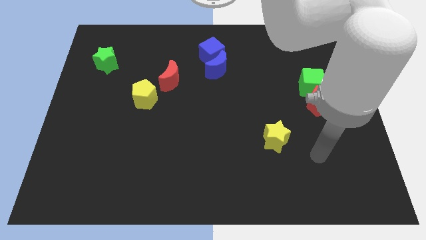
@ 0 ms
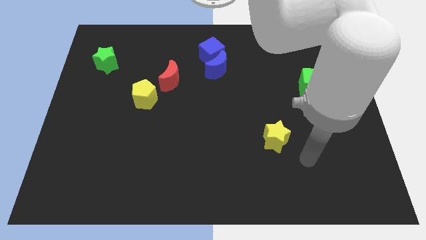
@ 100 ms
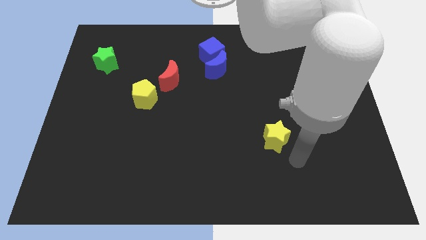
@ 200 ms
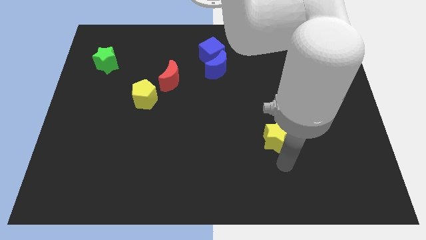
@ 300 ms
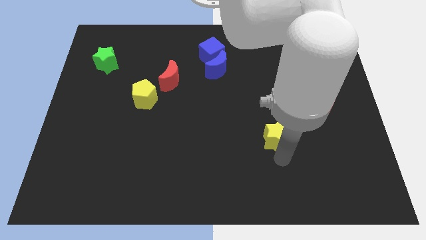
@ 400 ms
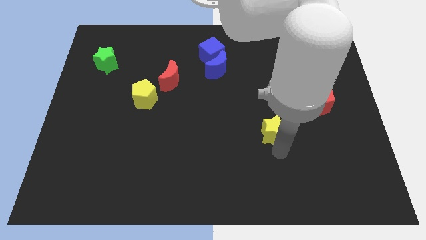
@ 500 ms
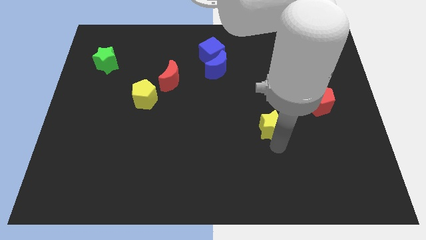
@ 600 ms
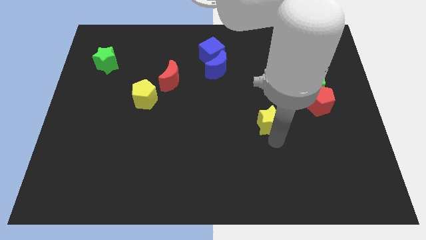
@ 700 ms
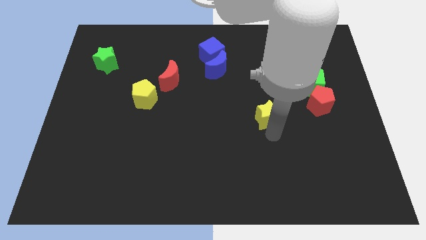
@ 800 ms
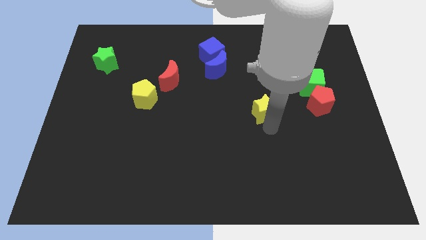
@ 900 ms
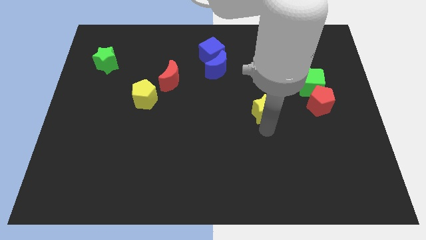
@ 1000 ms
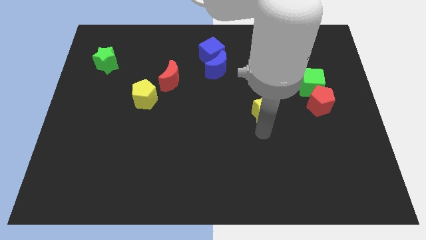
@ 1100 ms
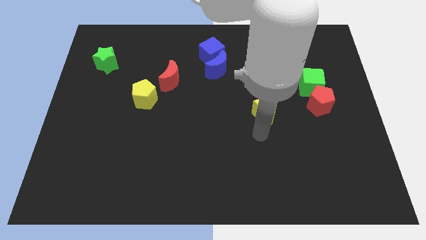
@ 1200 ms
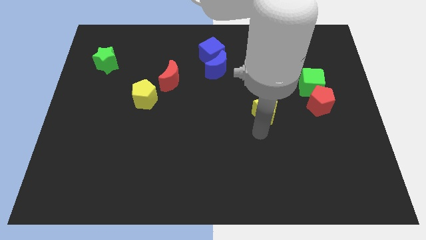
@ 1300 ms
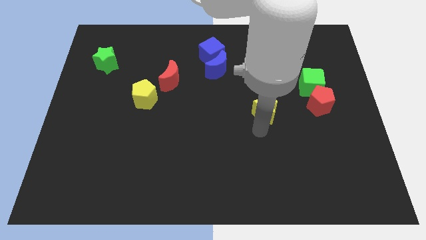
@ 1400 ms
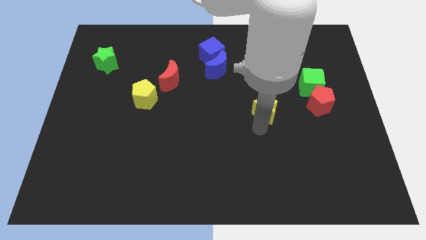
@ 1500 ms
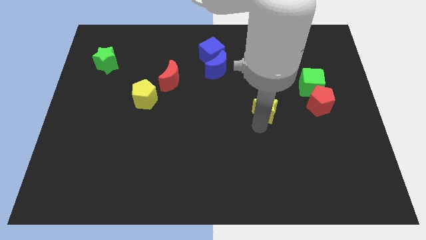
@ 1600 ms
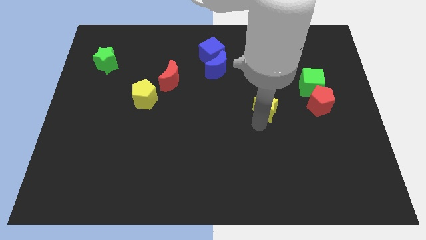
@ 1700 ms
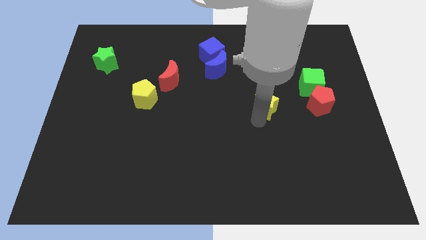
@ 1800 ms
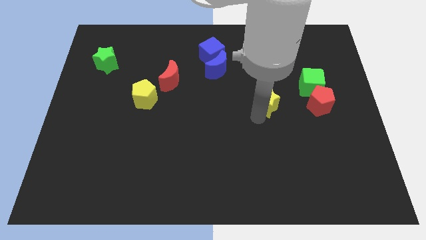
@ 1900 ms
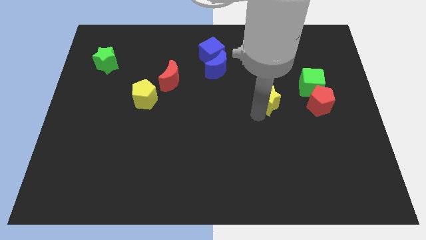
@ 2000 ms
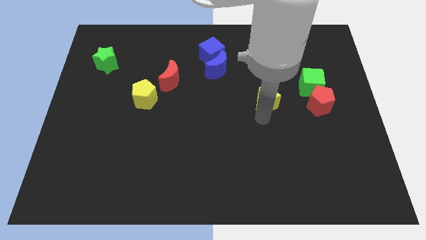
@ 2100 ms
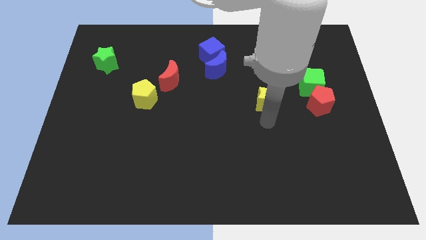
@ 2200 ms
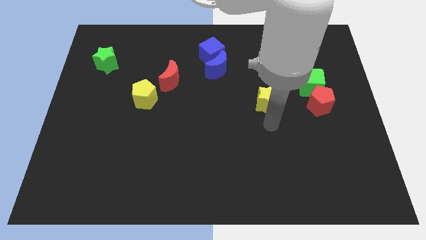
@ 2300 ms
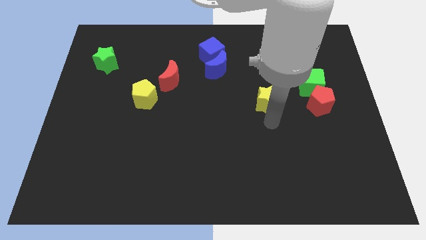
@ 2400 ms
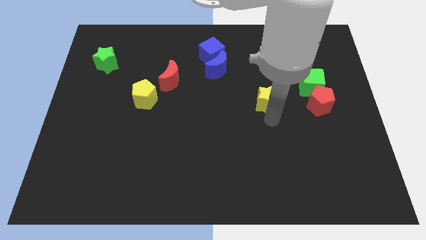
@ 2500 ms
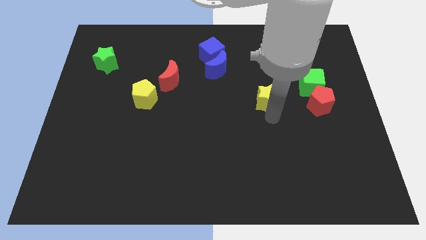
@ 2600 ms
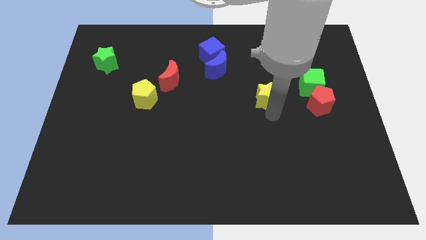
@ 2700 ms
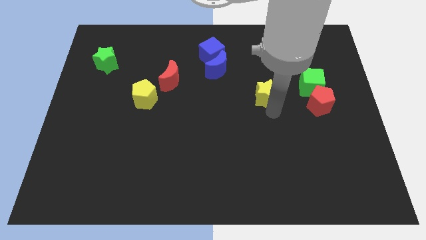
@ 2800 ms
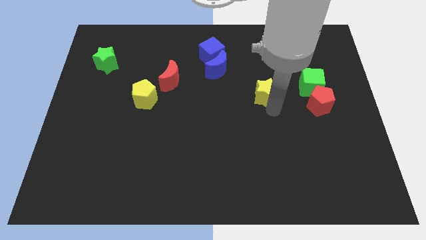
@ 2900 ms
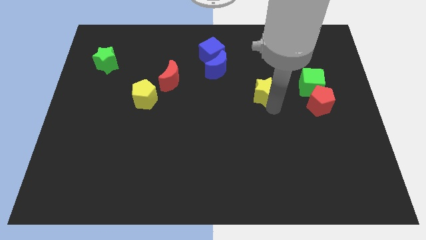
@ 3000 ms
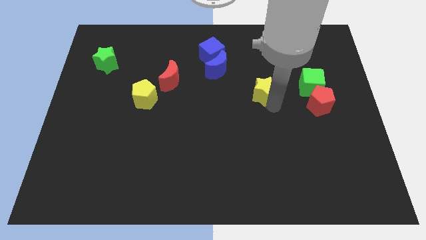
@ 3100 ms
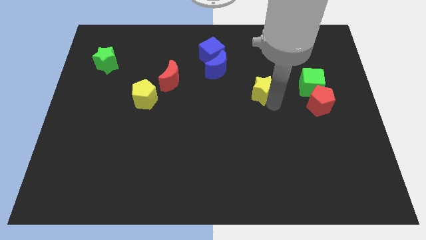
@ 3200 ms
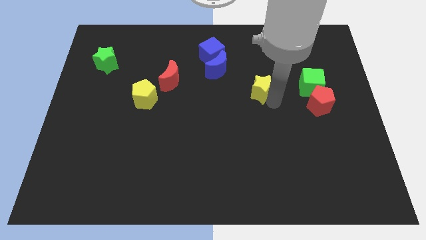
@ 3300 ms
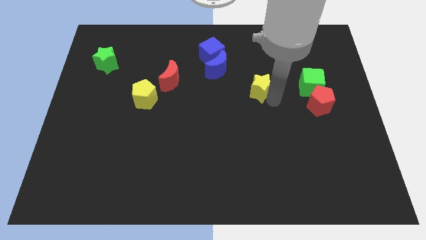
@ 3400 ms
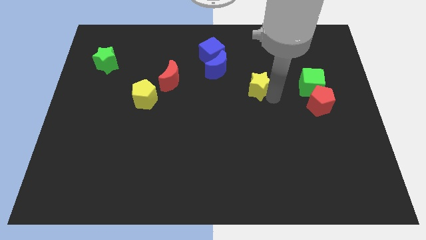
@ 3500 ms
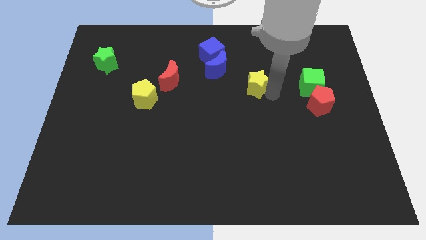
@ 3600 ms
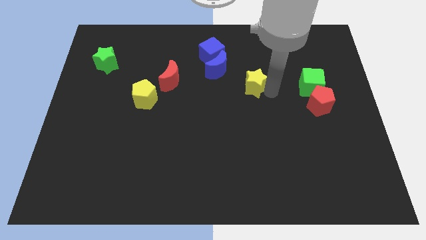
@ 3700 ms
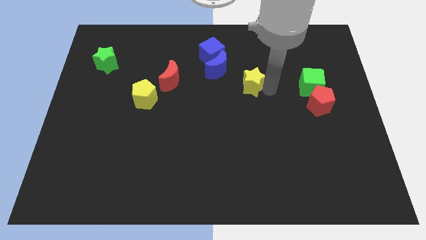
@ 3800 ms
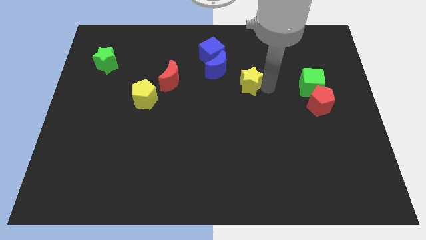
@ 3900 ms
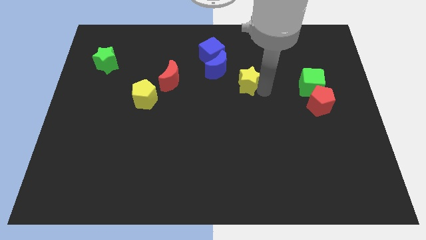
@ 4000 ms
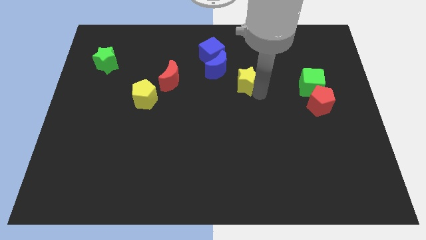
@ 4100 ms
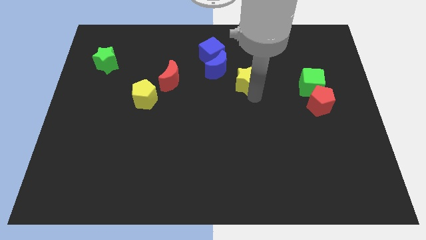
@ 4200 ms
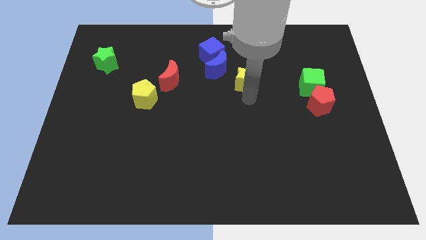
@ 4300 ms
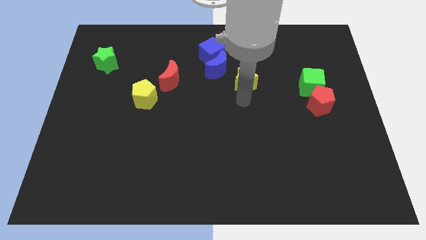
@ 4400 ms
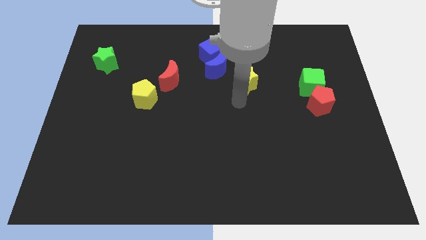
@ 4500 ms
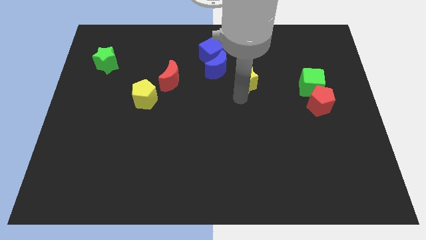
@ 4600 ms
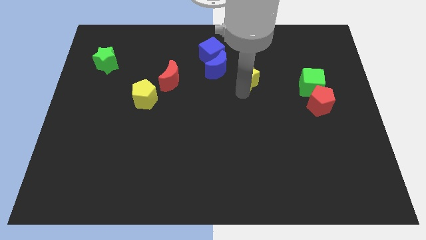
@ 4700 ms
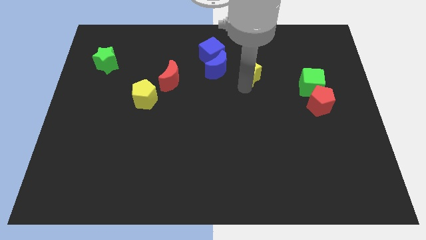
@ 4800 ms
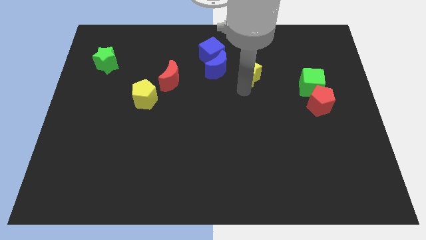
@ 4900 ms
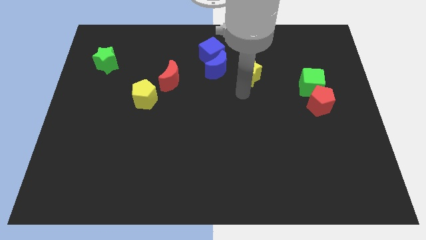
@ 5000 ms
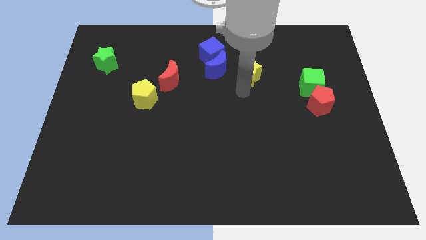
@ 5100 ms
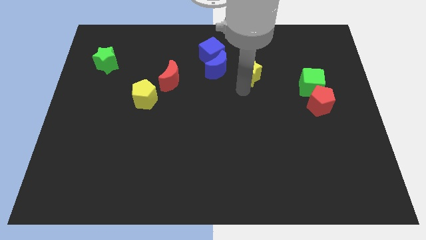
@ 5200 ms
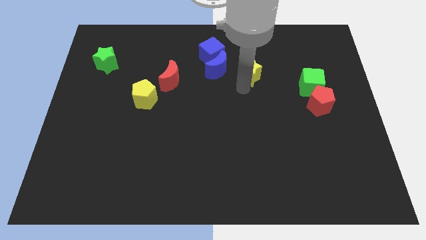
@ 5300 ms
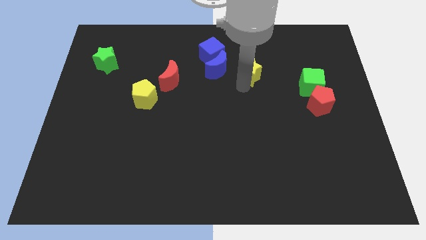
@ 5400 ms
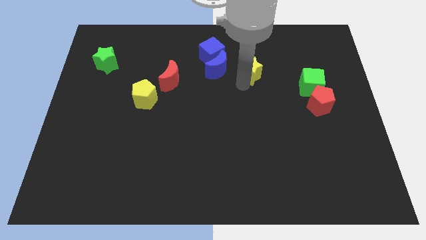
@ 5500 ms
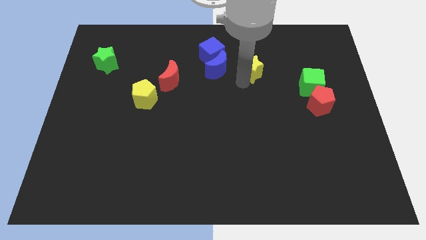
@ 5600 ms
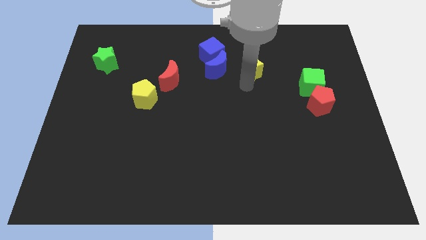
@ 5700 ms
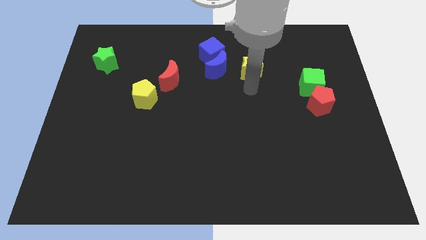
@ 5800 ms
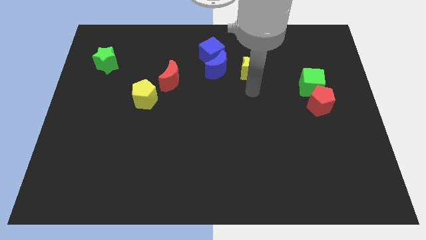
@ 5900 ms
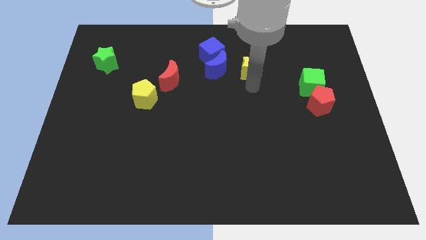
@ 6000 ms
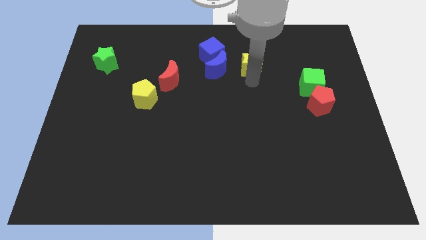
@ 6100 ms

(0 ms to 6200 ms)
push the yellow star to the right side of the blue cube

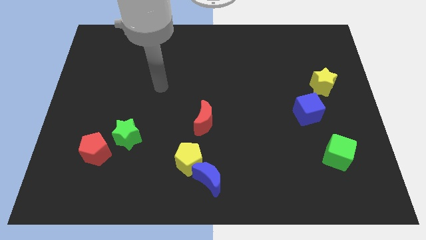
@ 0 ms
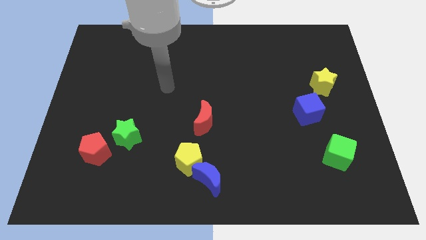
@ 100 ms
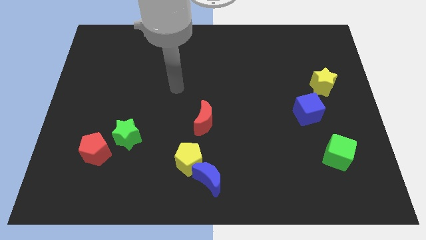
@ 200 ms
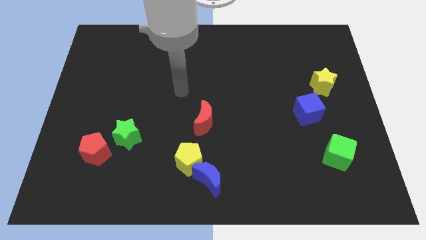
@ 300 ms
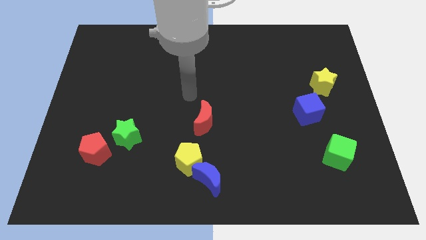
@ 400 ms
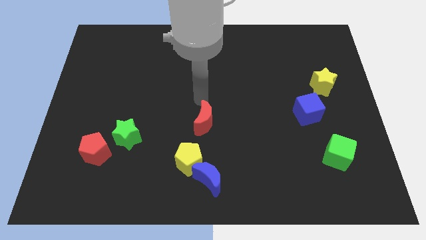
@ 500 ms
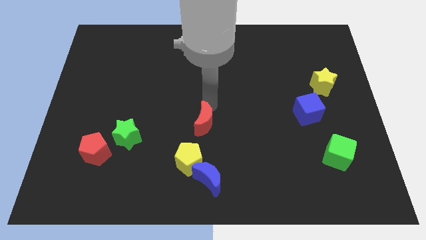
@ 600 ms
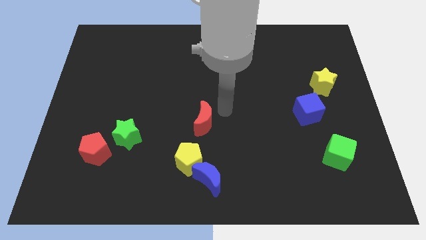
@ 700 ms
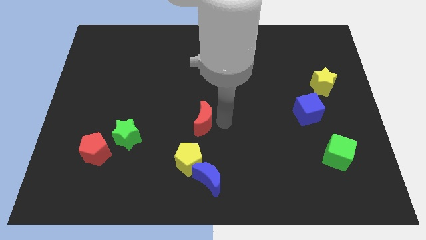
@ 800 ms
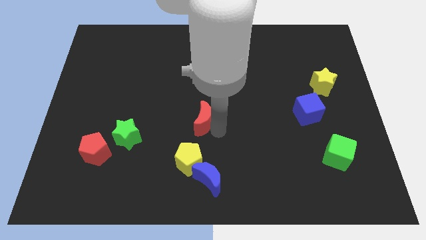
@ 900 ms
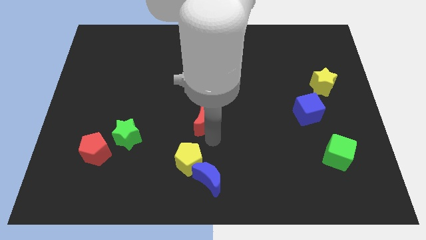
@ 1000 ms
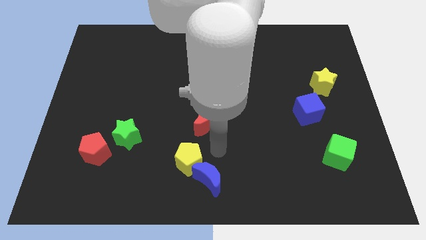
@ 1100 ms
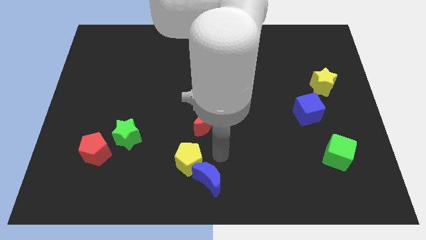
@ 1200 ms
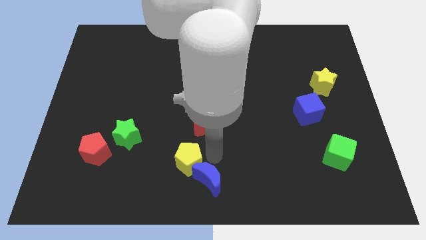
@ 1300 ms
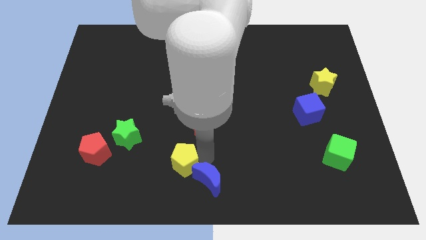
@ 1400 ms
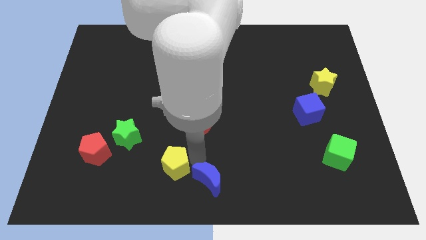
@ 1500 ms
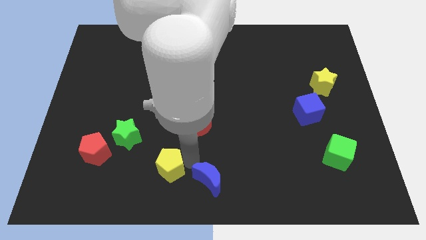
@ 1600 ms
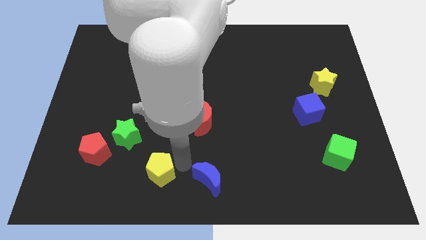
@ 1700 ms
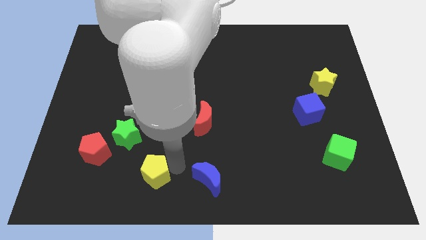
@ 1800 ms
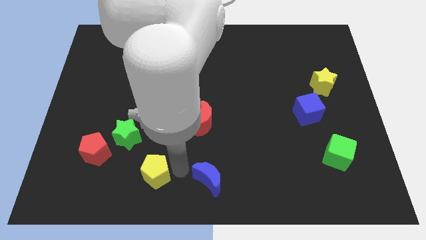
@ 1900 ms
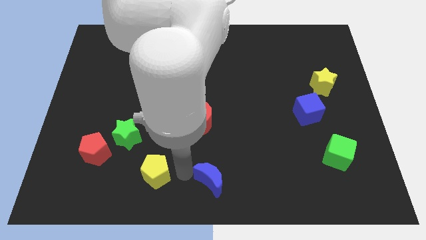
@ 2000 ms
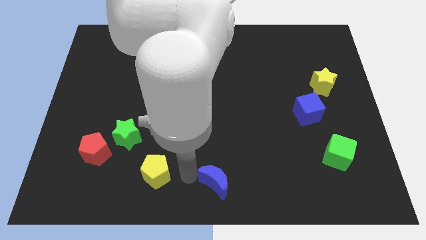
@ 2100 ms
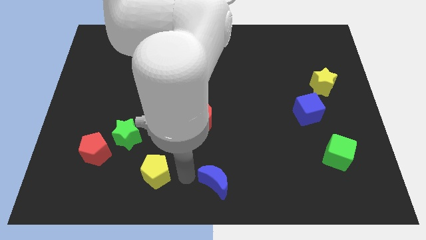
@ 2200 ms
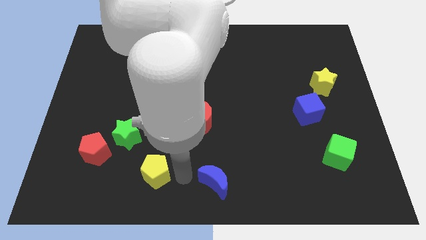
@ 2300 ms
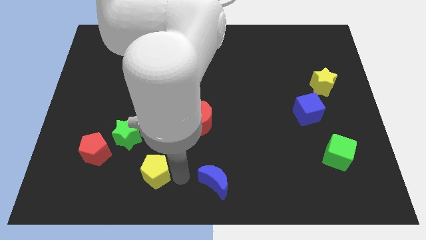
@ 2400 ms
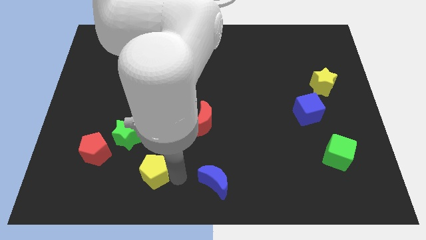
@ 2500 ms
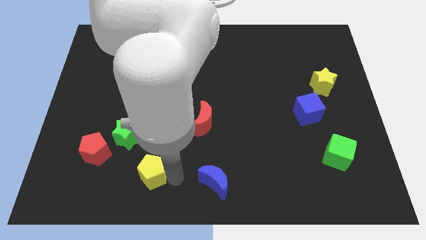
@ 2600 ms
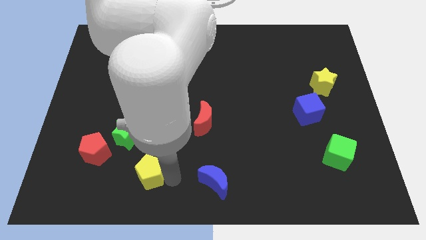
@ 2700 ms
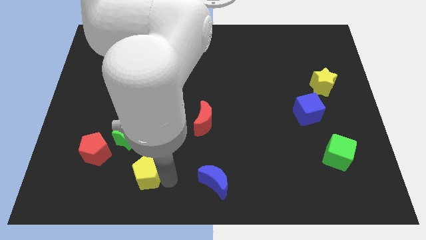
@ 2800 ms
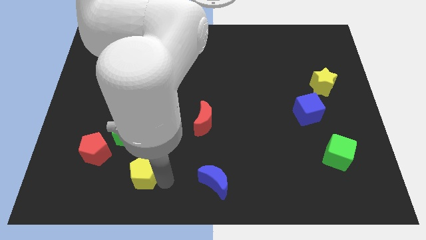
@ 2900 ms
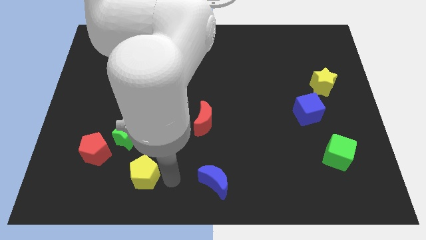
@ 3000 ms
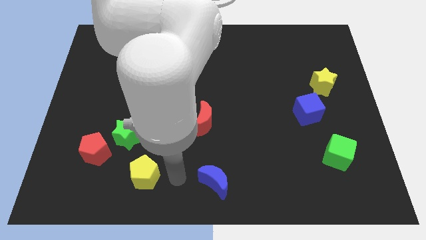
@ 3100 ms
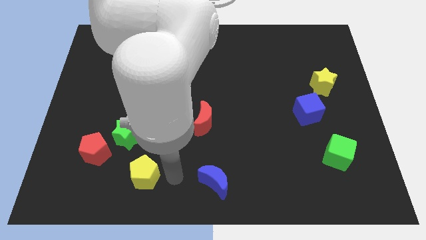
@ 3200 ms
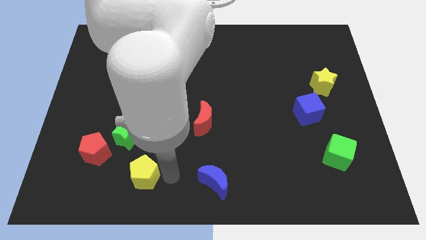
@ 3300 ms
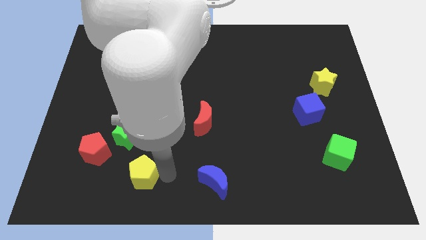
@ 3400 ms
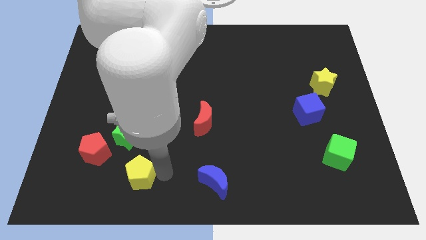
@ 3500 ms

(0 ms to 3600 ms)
slide the yellow pentagon to the bottom right side of the red pentagon
